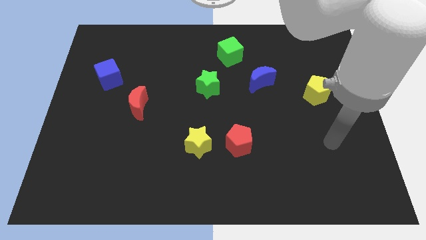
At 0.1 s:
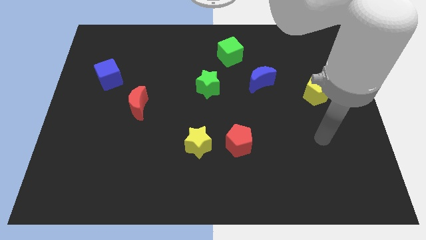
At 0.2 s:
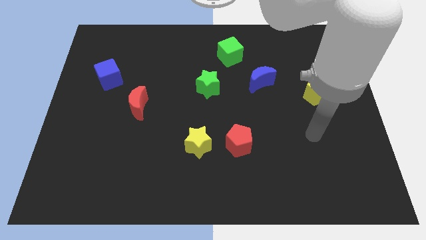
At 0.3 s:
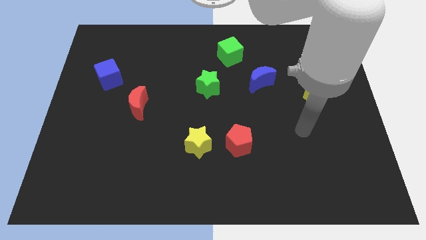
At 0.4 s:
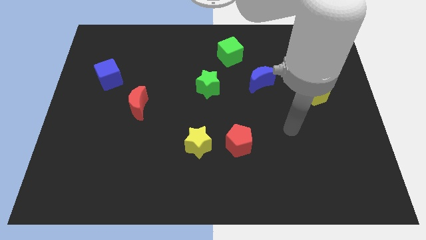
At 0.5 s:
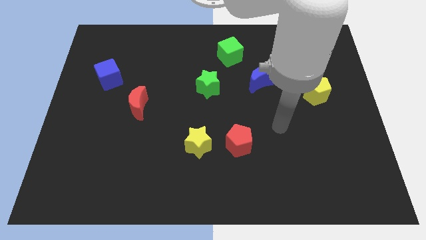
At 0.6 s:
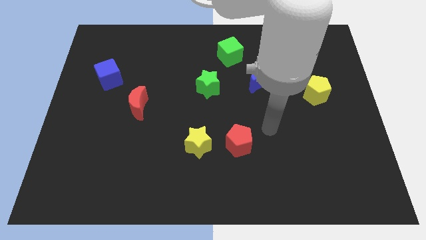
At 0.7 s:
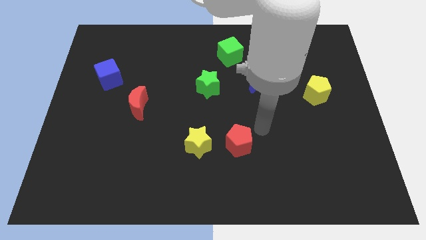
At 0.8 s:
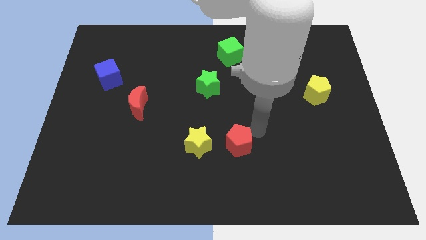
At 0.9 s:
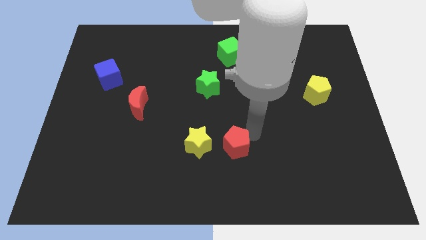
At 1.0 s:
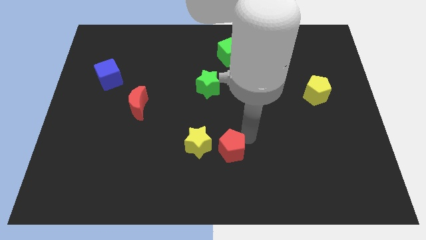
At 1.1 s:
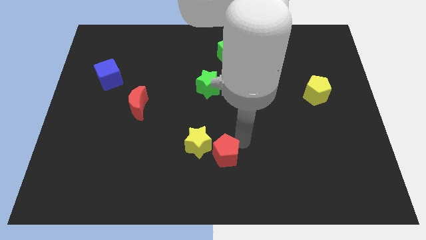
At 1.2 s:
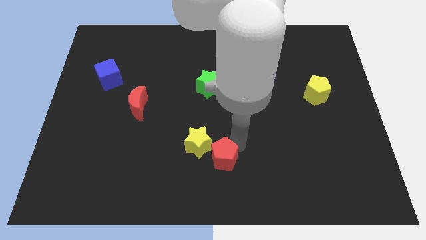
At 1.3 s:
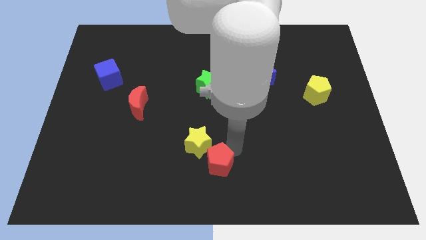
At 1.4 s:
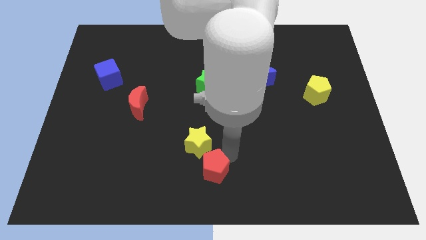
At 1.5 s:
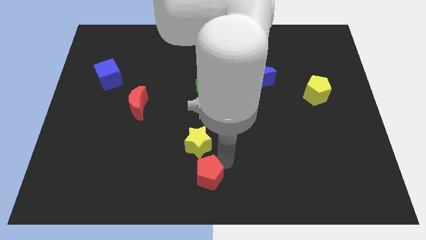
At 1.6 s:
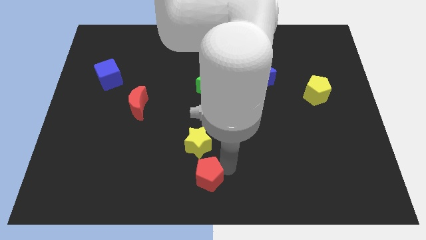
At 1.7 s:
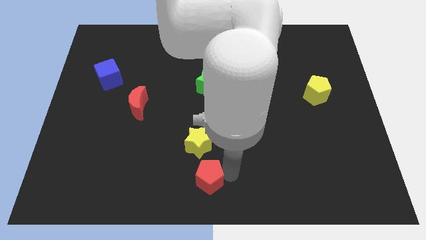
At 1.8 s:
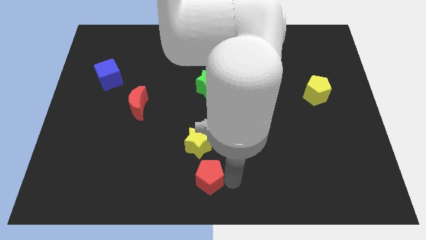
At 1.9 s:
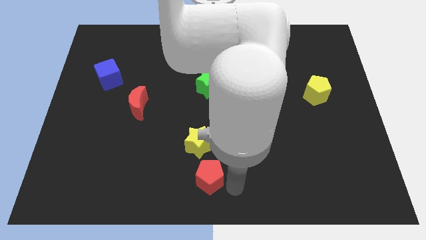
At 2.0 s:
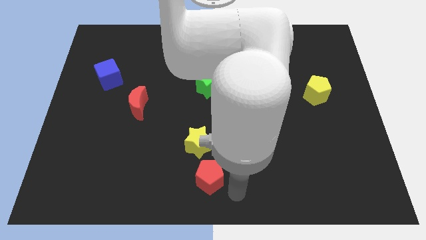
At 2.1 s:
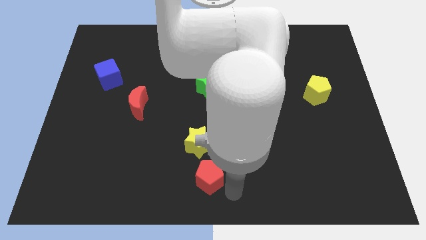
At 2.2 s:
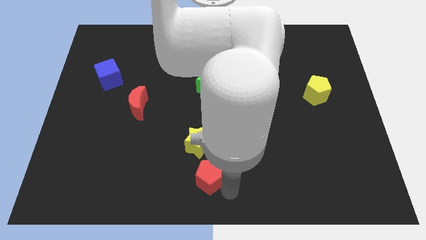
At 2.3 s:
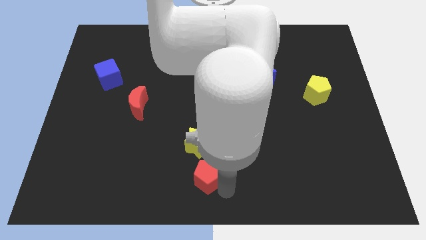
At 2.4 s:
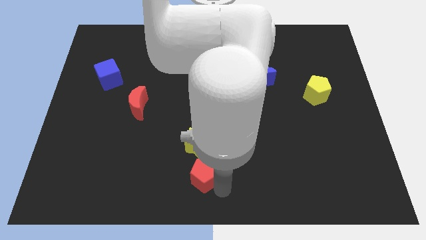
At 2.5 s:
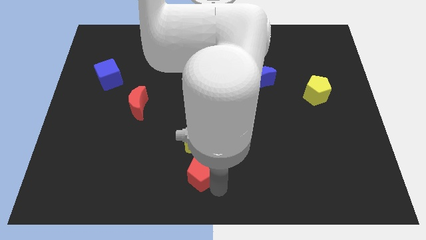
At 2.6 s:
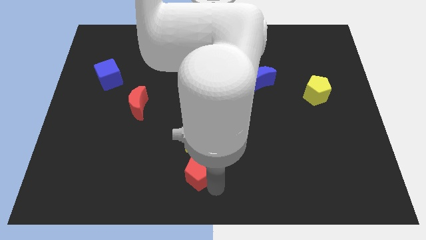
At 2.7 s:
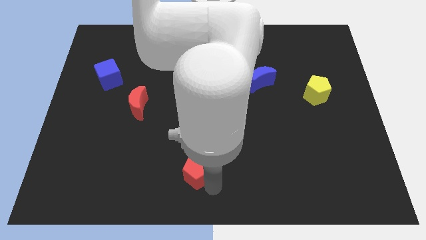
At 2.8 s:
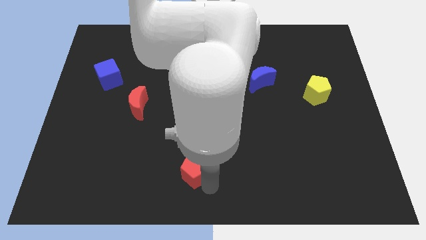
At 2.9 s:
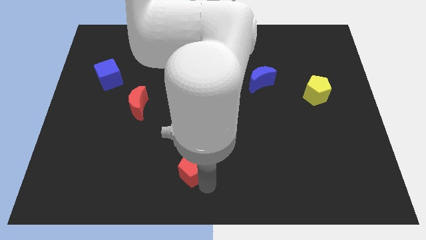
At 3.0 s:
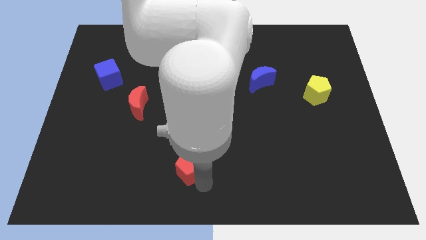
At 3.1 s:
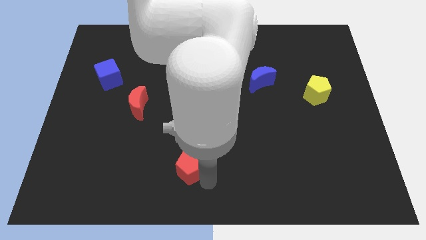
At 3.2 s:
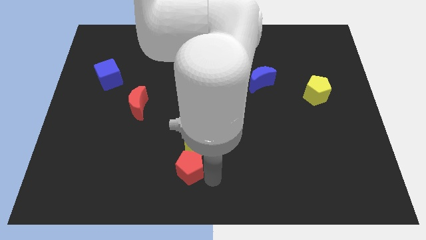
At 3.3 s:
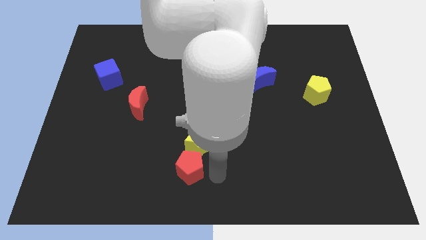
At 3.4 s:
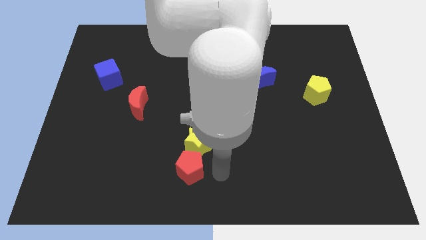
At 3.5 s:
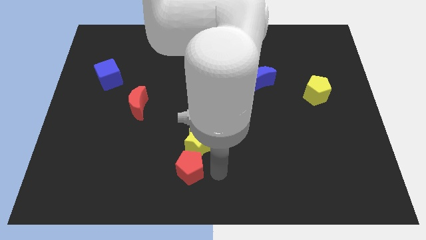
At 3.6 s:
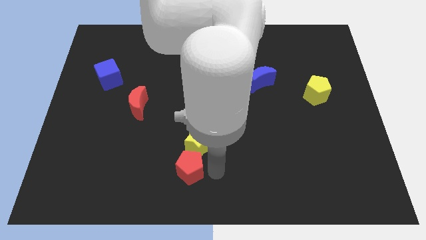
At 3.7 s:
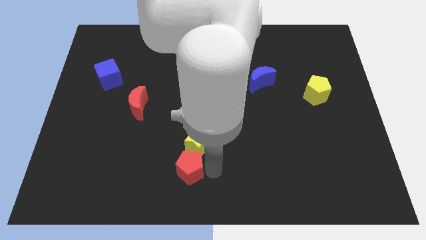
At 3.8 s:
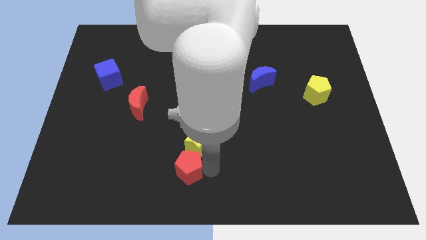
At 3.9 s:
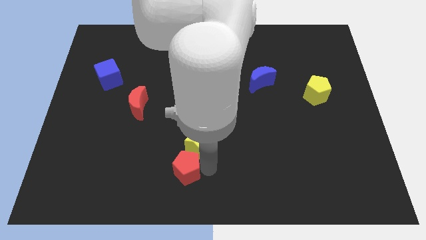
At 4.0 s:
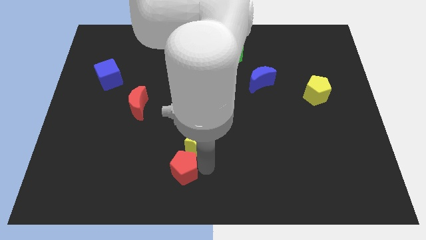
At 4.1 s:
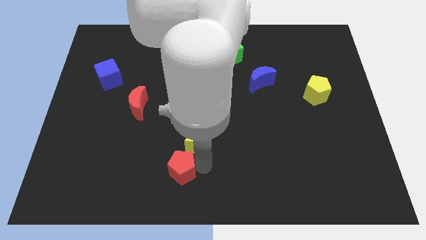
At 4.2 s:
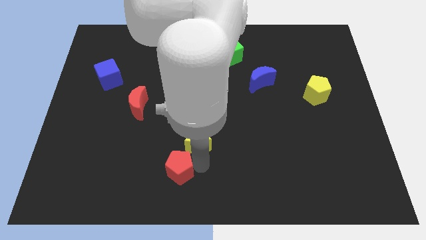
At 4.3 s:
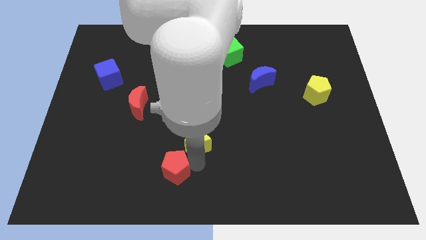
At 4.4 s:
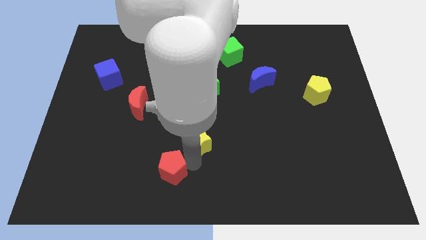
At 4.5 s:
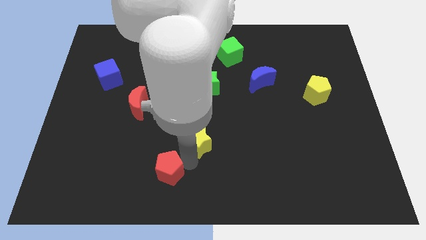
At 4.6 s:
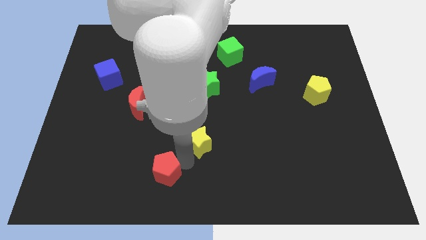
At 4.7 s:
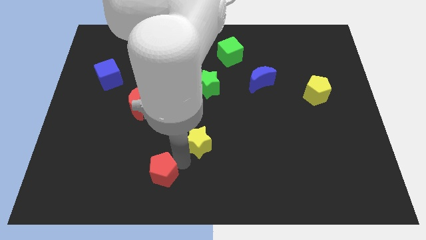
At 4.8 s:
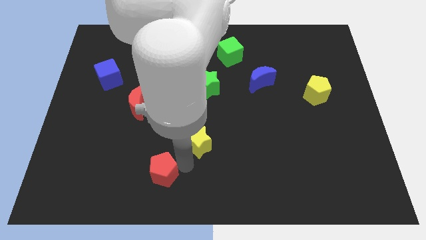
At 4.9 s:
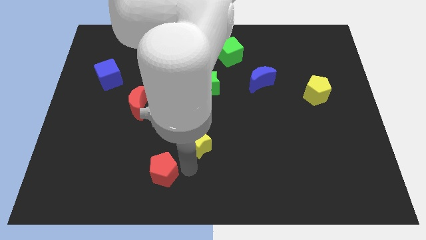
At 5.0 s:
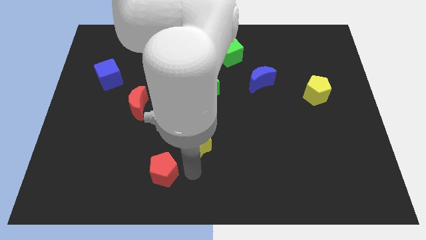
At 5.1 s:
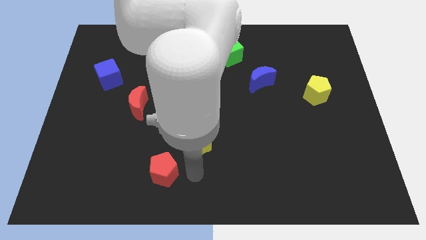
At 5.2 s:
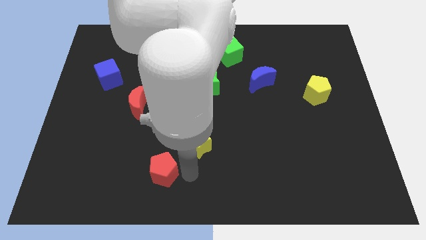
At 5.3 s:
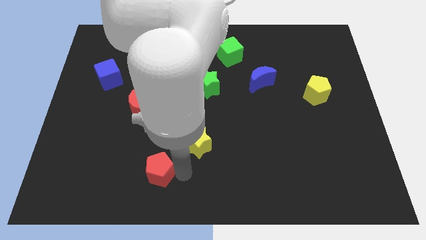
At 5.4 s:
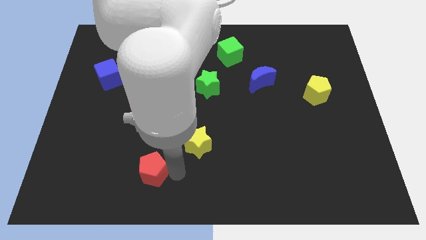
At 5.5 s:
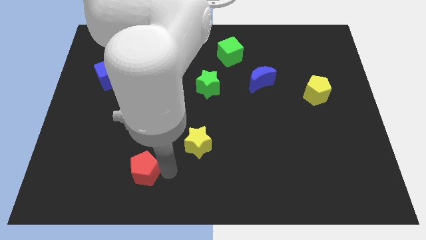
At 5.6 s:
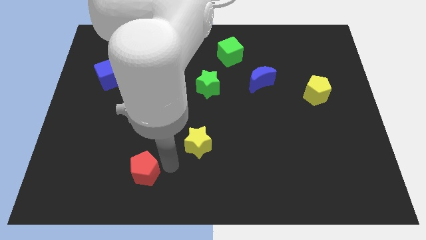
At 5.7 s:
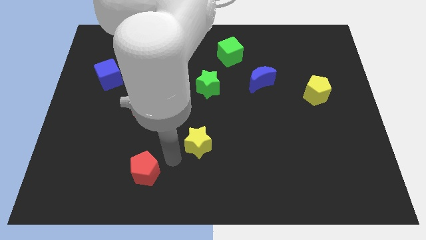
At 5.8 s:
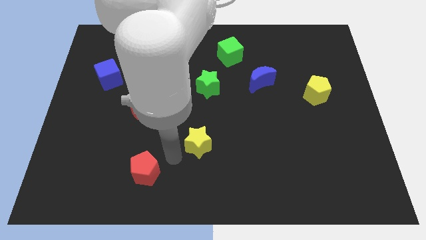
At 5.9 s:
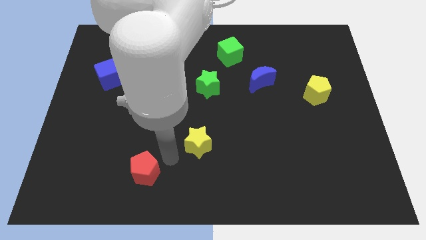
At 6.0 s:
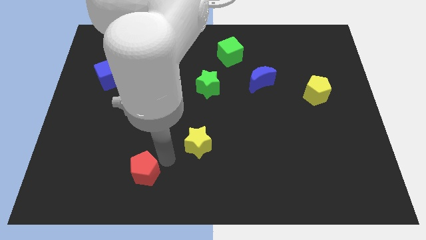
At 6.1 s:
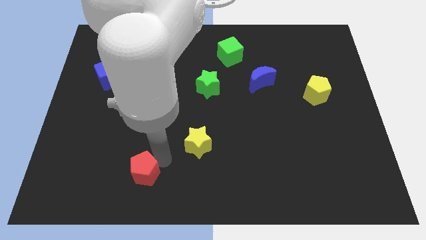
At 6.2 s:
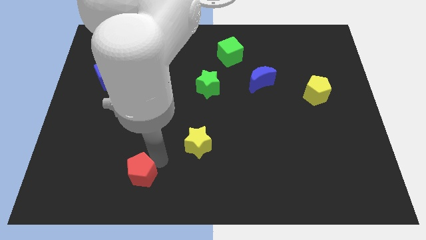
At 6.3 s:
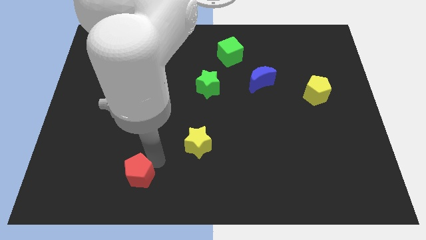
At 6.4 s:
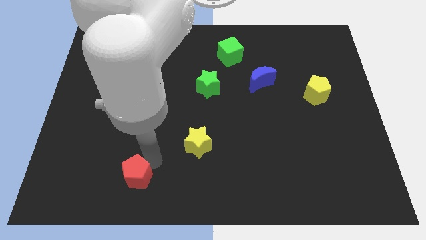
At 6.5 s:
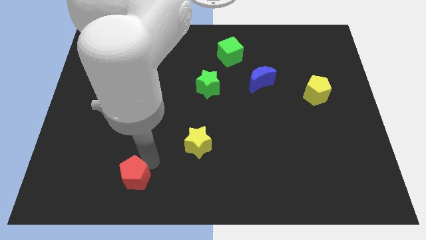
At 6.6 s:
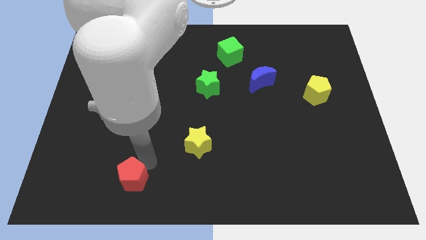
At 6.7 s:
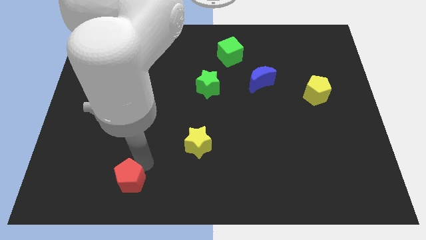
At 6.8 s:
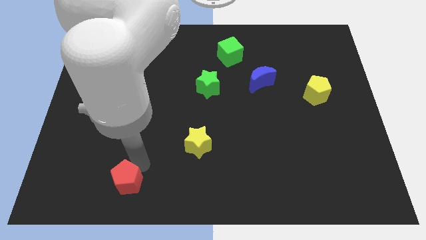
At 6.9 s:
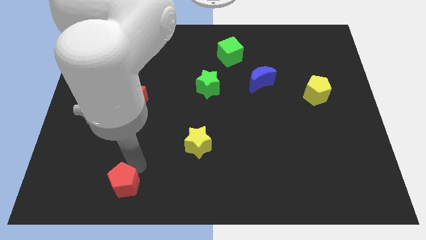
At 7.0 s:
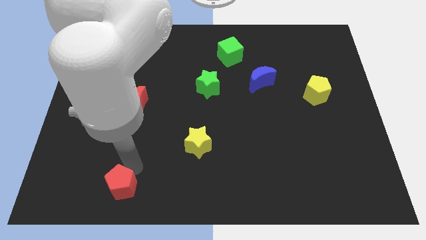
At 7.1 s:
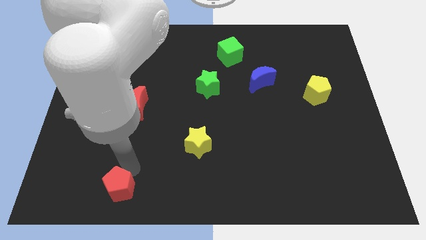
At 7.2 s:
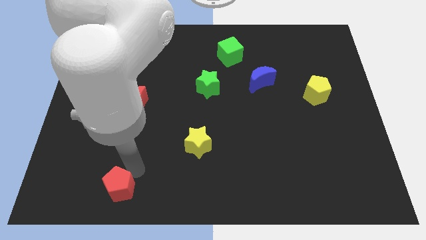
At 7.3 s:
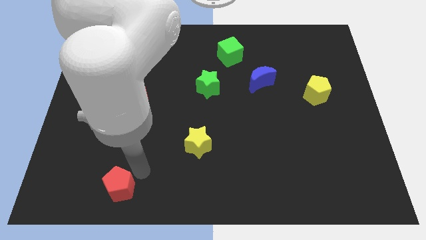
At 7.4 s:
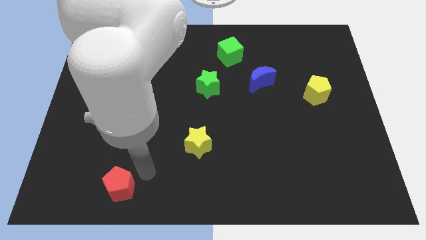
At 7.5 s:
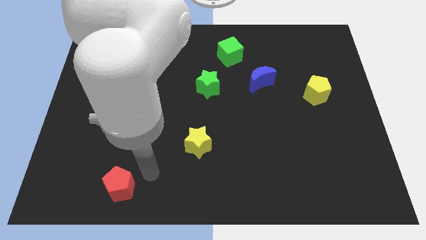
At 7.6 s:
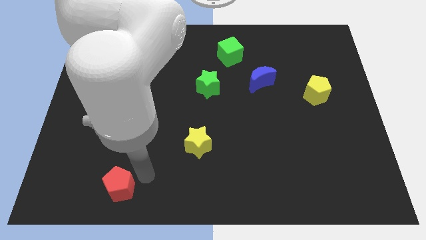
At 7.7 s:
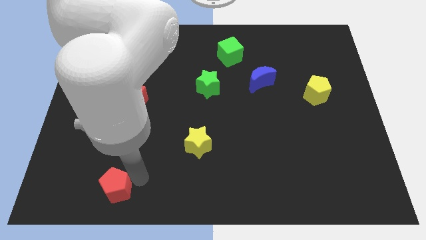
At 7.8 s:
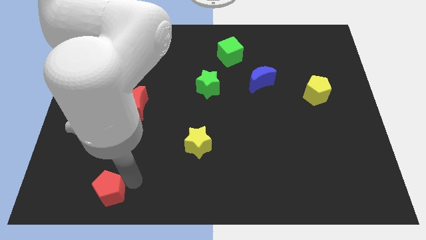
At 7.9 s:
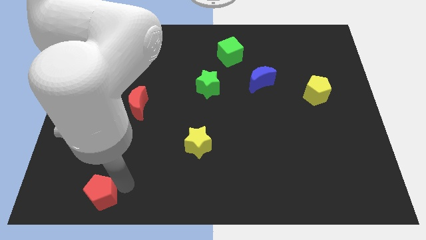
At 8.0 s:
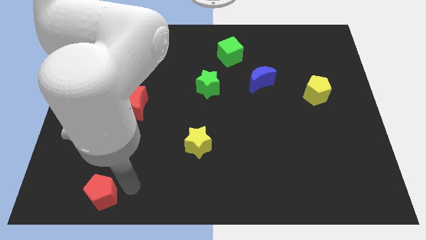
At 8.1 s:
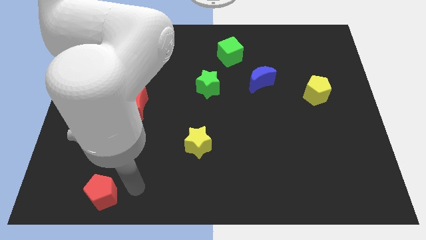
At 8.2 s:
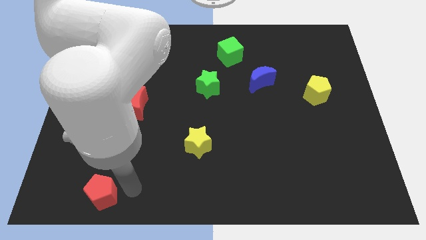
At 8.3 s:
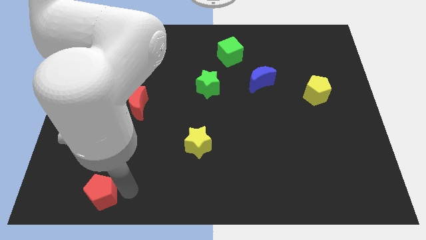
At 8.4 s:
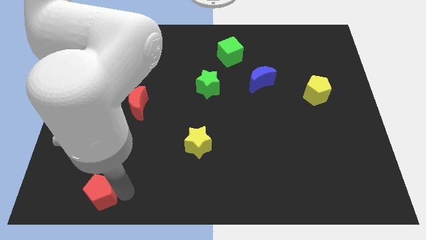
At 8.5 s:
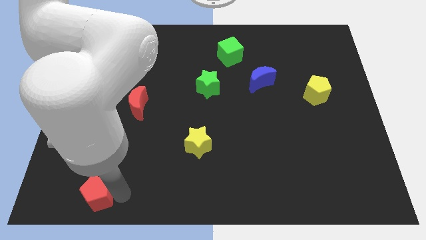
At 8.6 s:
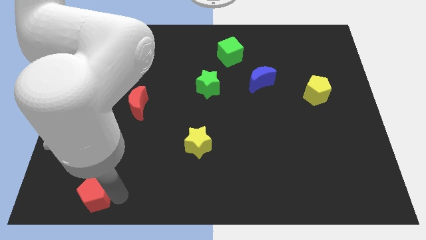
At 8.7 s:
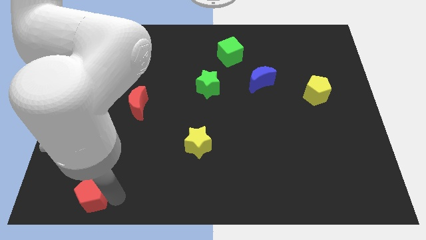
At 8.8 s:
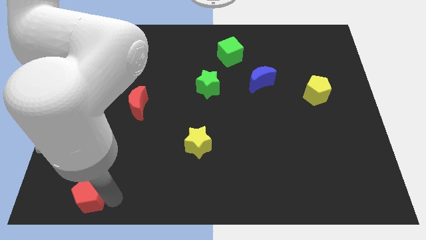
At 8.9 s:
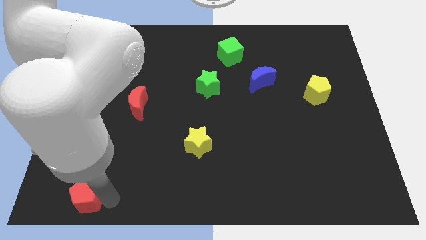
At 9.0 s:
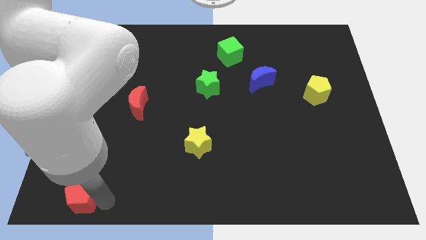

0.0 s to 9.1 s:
move the red pentagon to the bottom left corner
